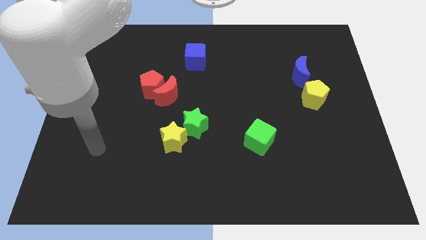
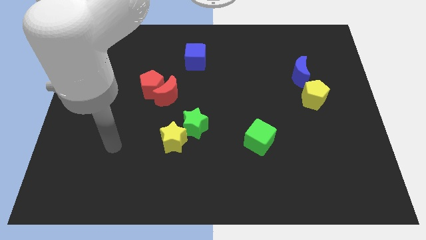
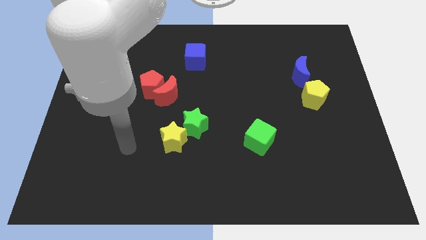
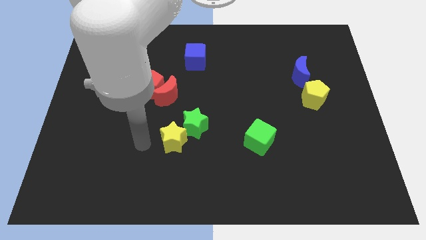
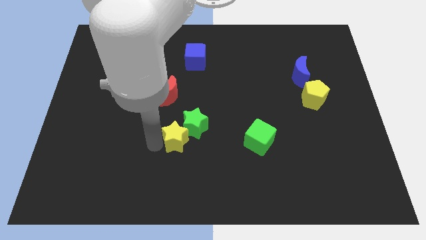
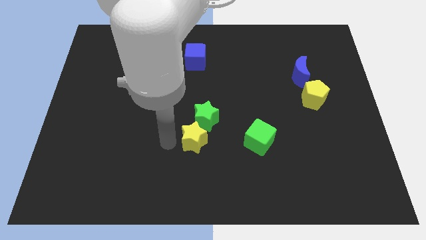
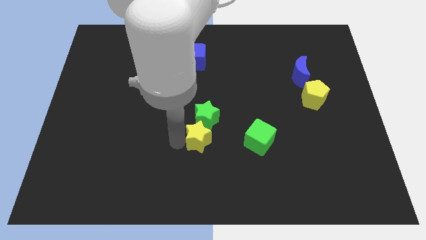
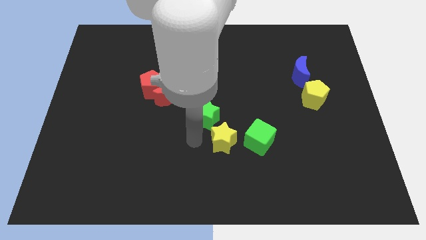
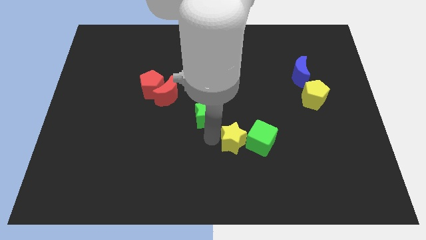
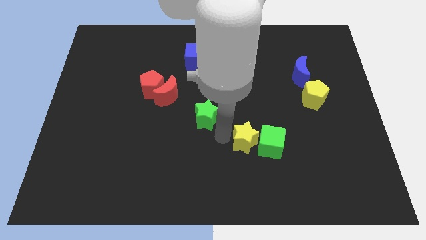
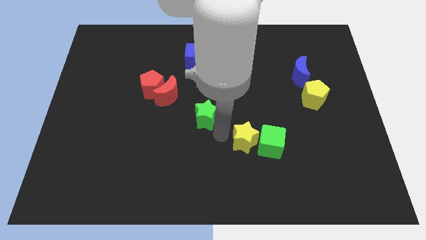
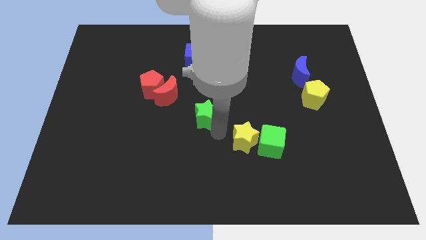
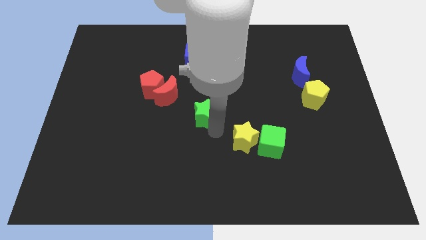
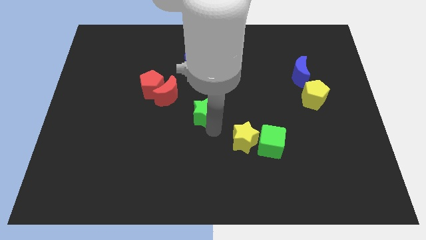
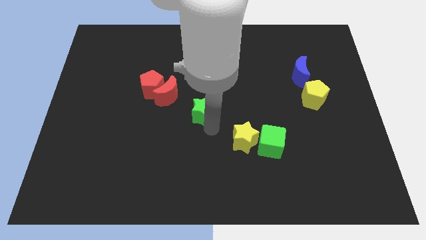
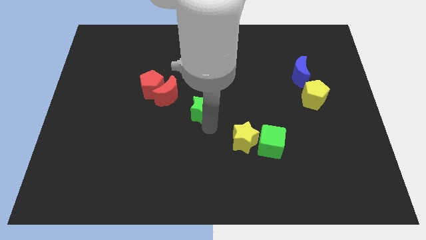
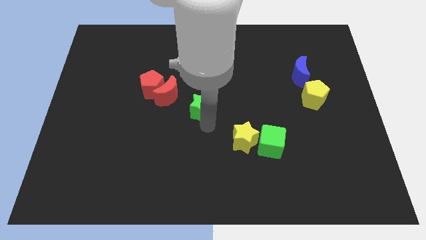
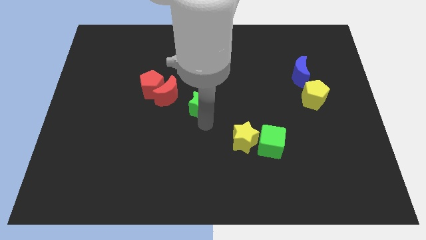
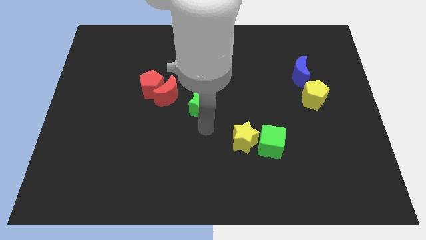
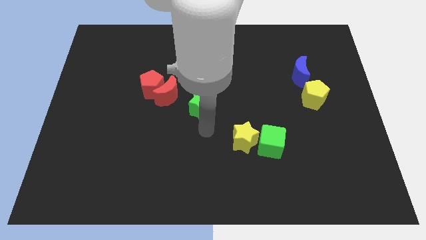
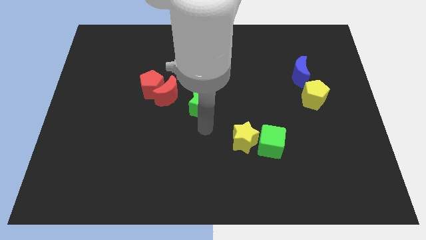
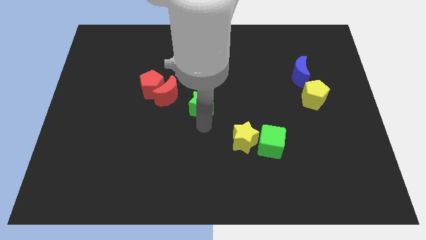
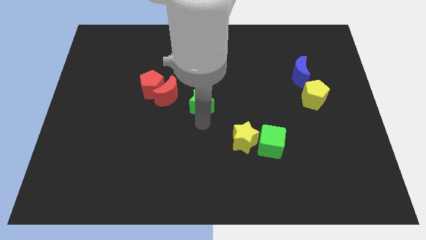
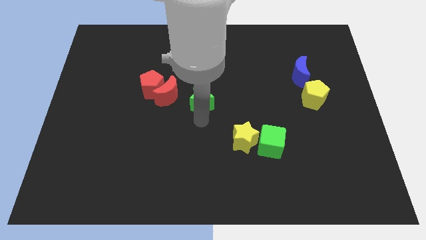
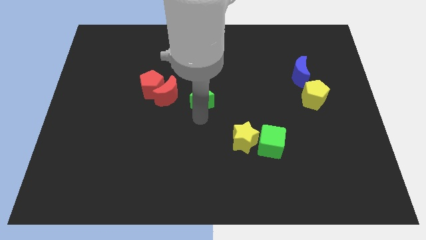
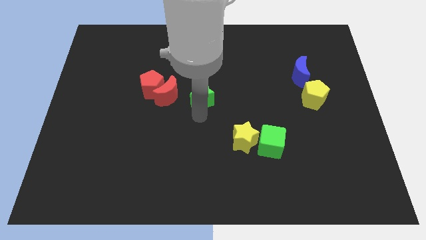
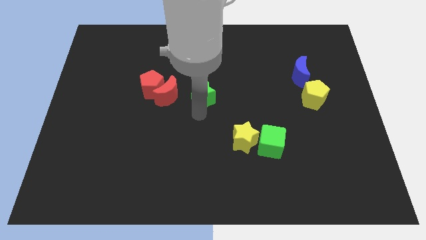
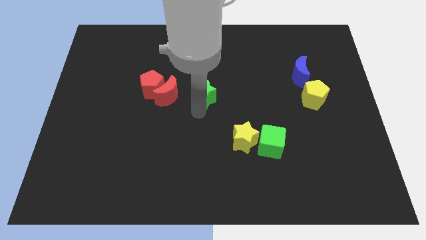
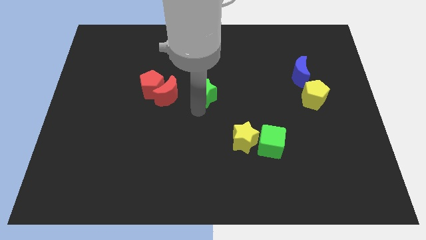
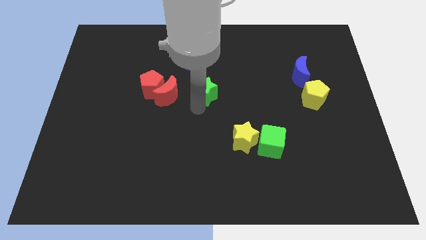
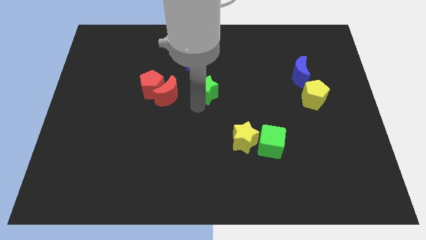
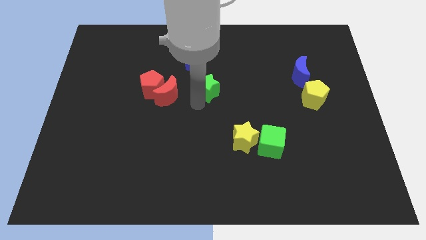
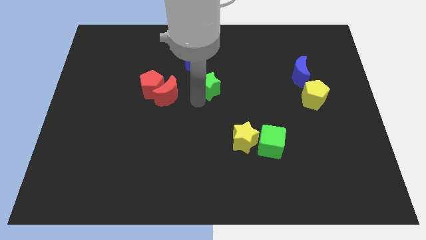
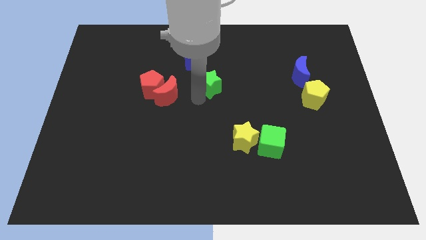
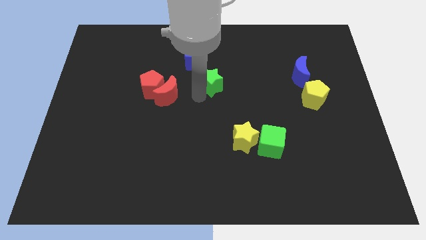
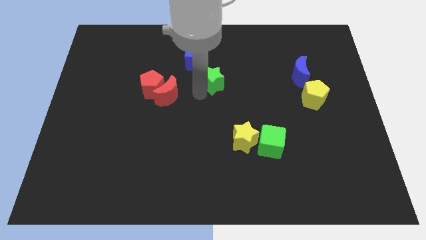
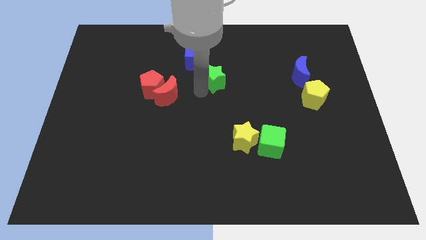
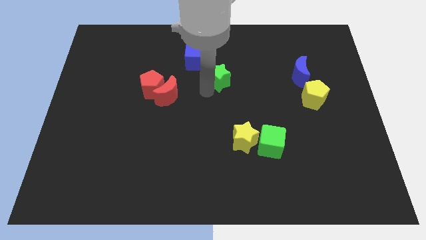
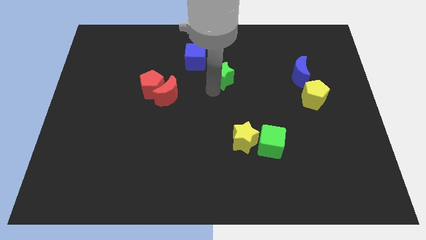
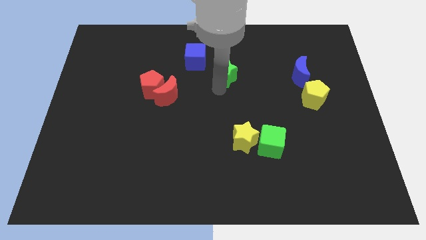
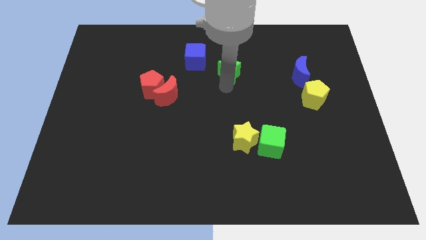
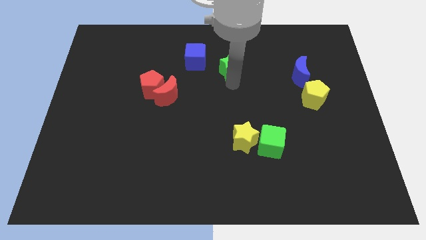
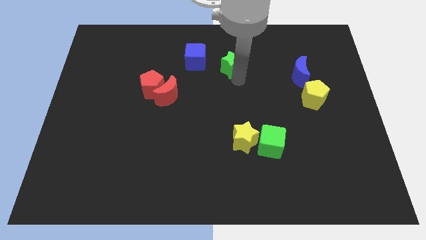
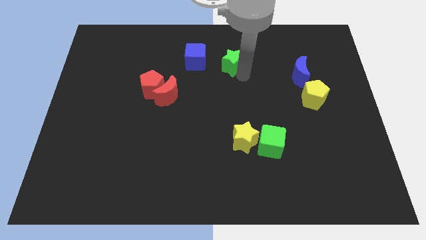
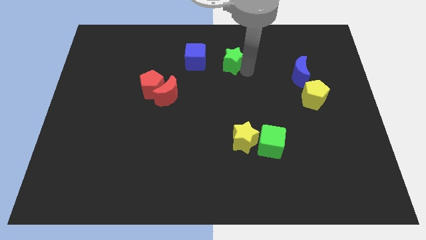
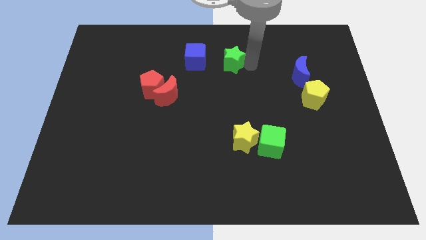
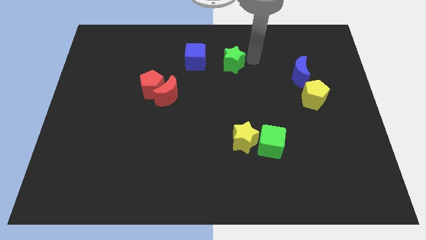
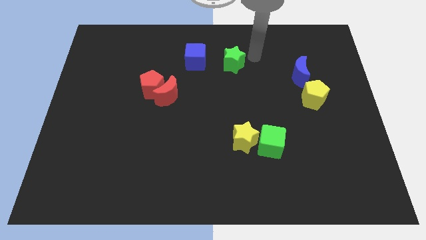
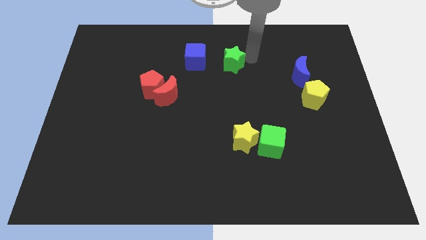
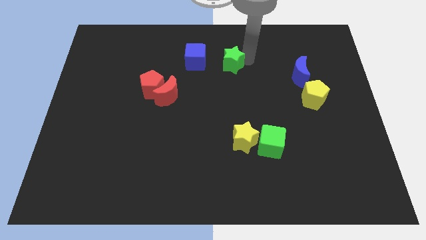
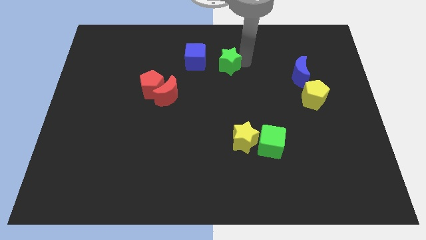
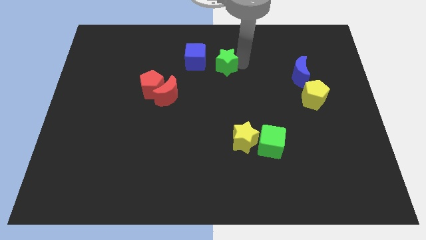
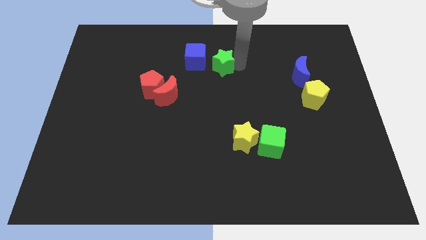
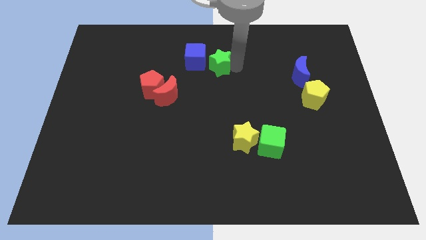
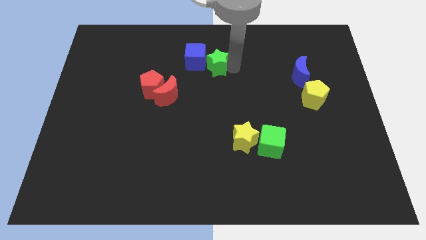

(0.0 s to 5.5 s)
put the green star to the blue cube
